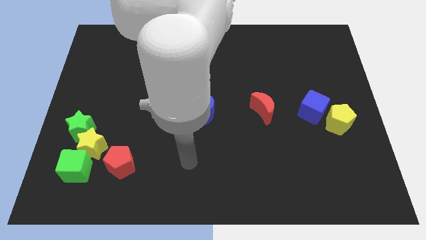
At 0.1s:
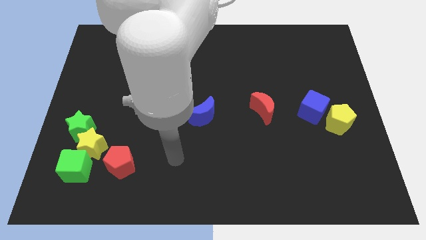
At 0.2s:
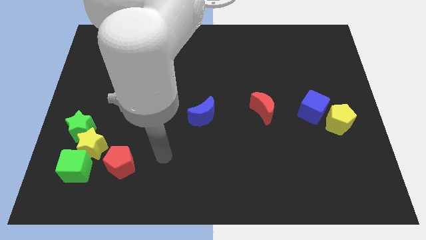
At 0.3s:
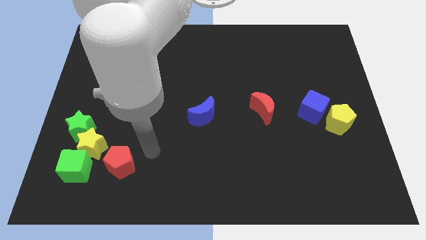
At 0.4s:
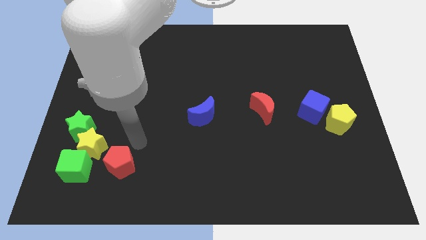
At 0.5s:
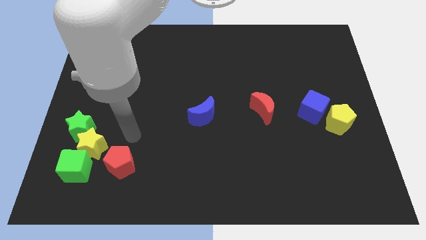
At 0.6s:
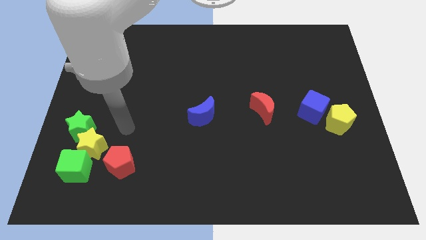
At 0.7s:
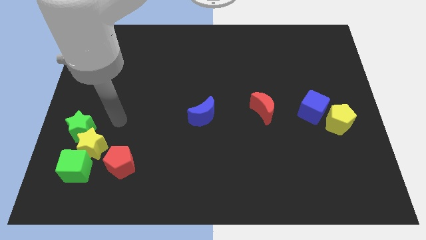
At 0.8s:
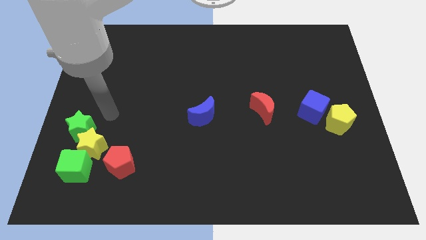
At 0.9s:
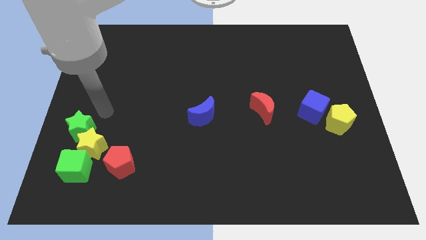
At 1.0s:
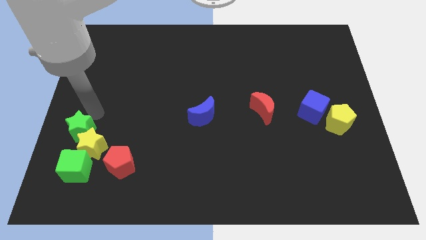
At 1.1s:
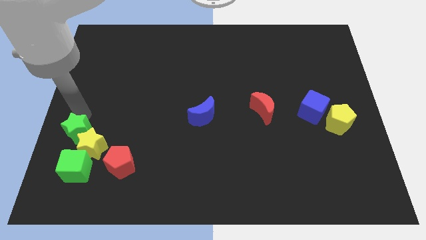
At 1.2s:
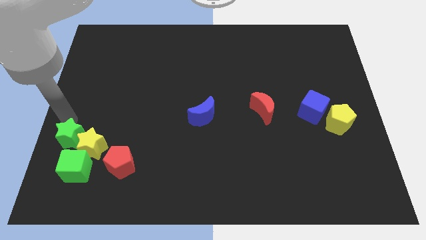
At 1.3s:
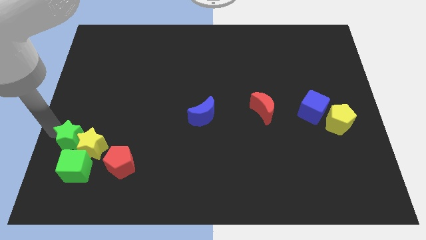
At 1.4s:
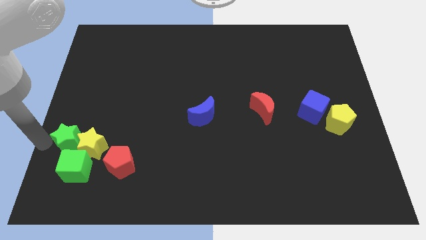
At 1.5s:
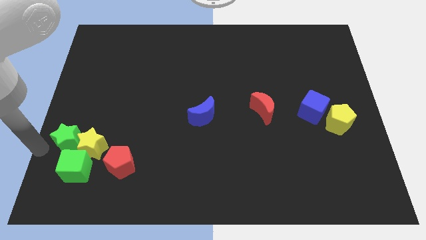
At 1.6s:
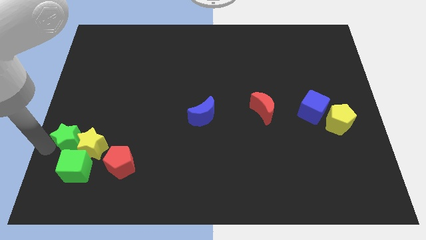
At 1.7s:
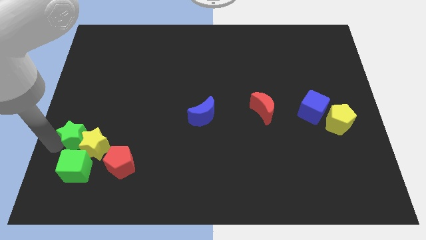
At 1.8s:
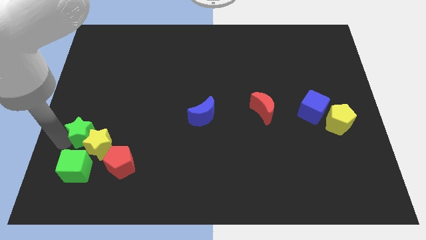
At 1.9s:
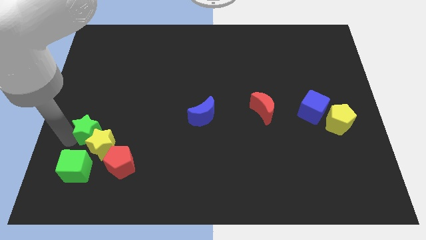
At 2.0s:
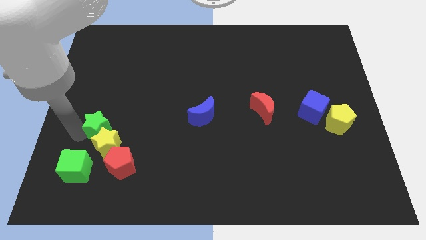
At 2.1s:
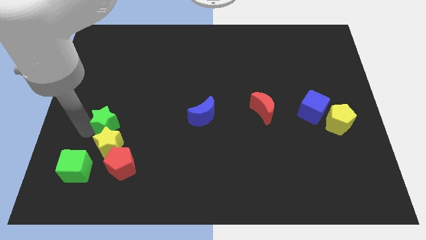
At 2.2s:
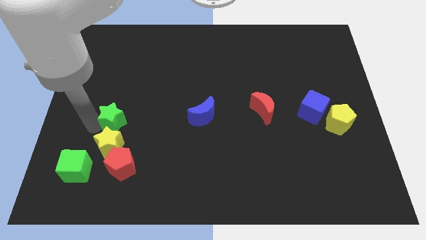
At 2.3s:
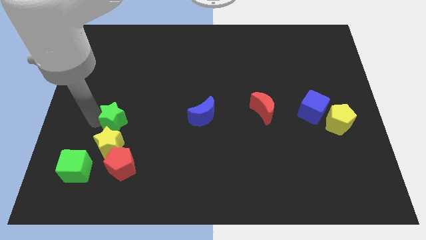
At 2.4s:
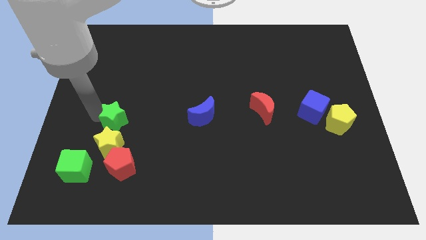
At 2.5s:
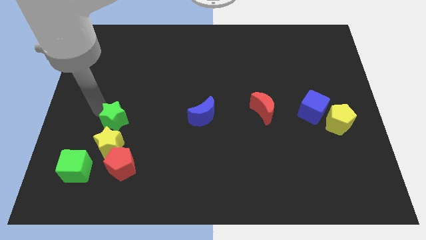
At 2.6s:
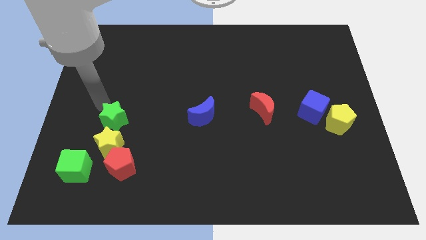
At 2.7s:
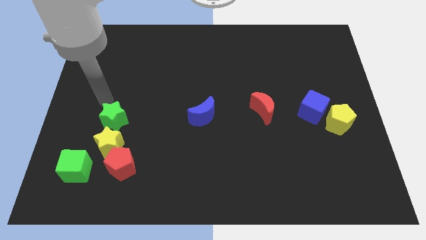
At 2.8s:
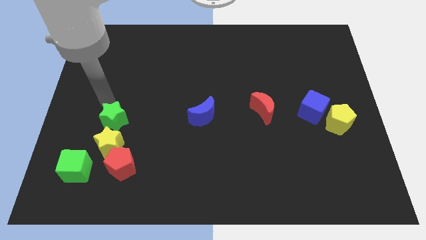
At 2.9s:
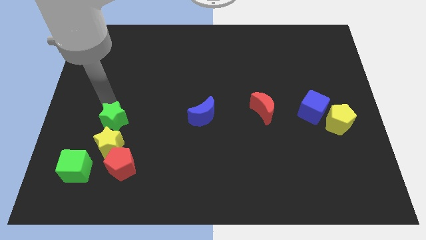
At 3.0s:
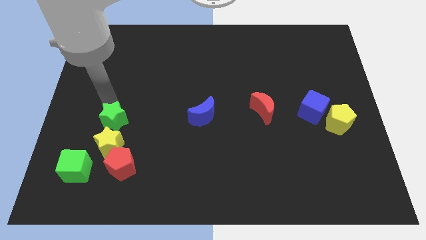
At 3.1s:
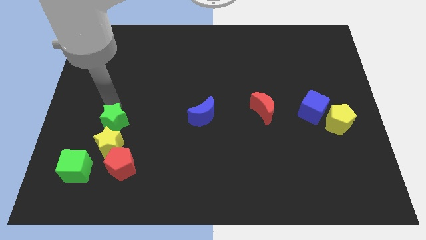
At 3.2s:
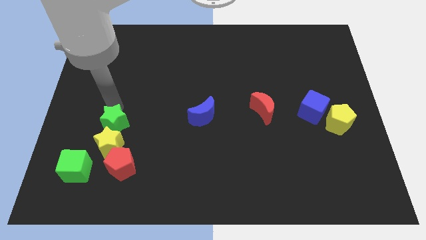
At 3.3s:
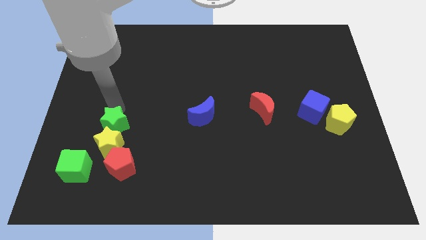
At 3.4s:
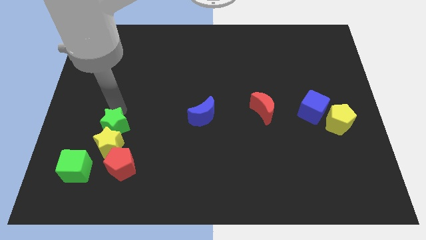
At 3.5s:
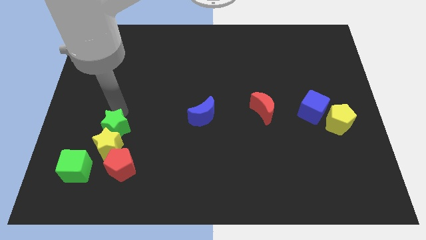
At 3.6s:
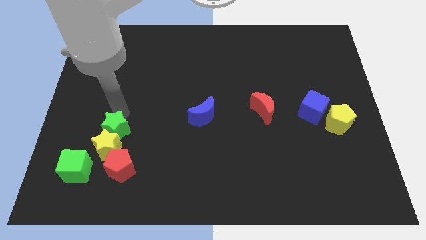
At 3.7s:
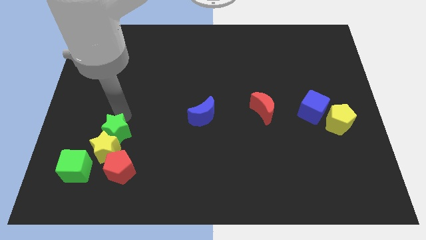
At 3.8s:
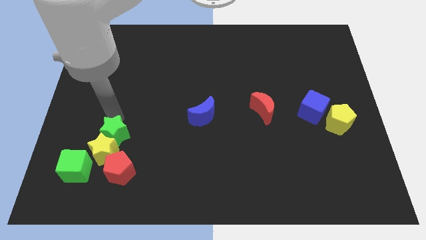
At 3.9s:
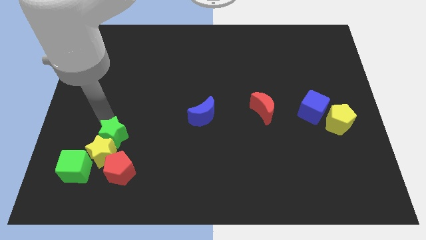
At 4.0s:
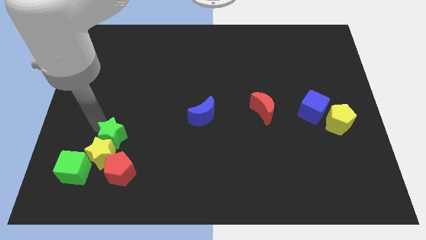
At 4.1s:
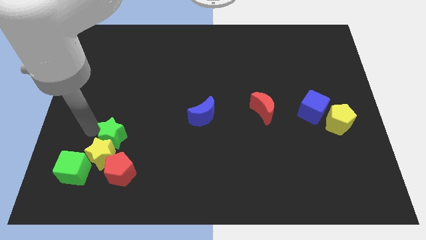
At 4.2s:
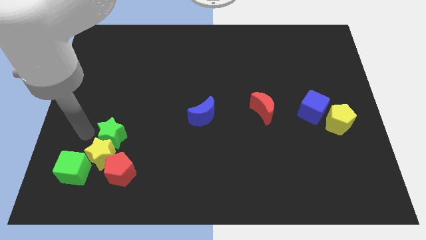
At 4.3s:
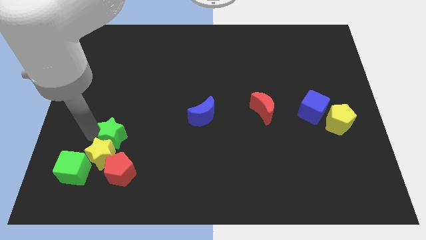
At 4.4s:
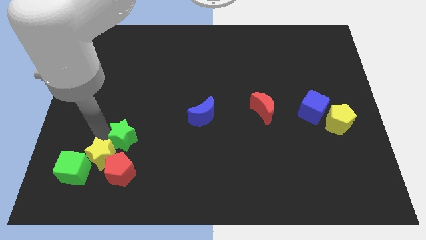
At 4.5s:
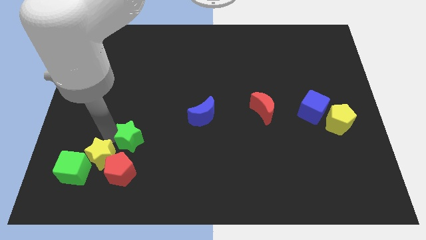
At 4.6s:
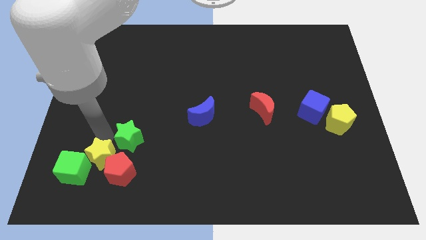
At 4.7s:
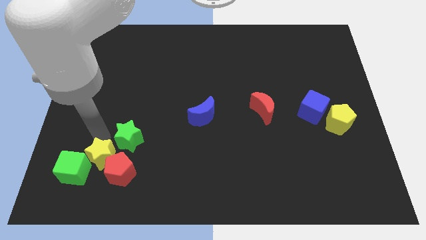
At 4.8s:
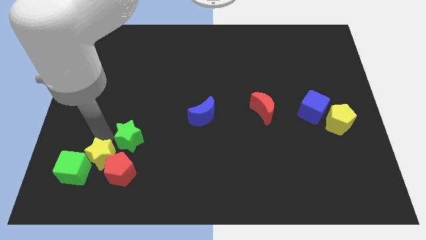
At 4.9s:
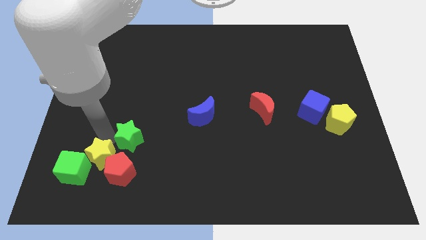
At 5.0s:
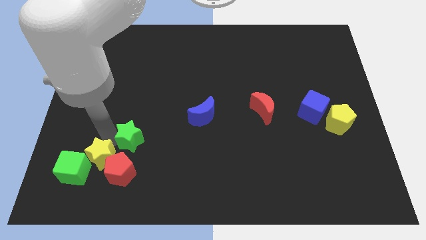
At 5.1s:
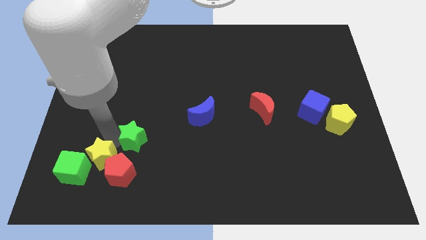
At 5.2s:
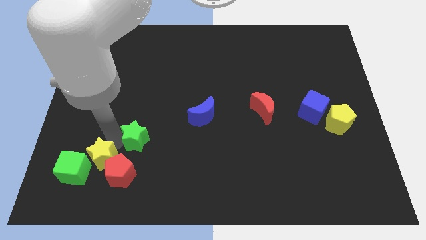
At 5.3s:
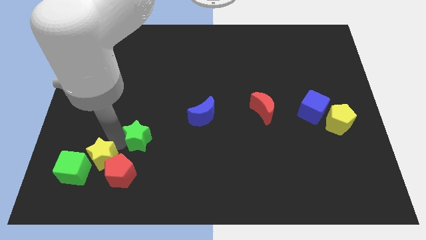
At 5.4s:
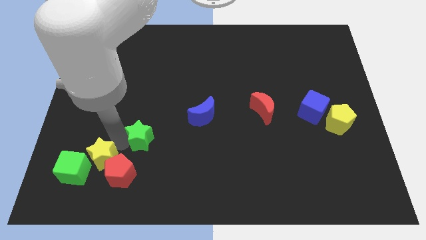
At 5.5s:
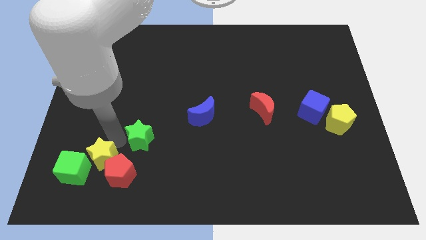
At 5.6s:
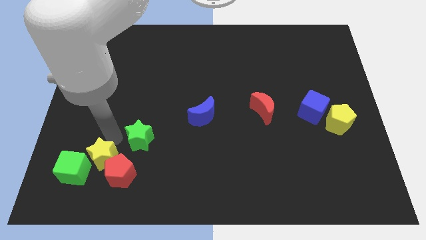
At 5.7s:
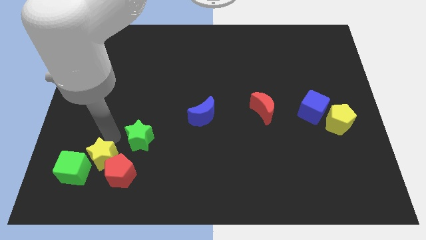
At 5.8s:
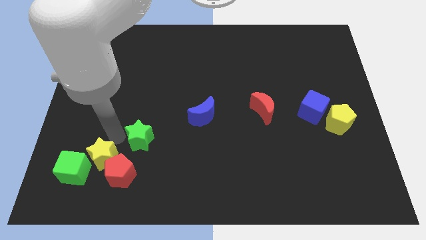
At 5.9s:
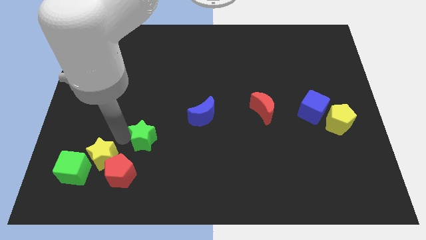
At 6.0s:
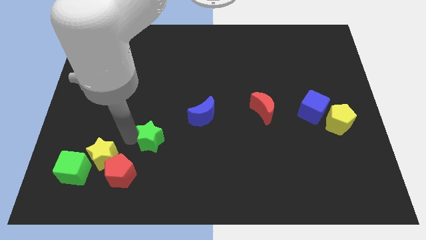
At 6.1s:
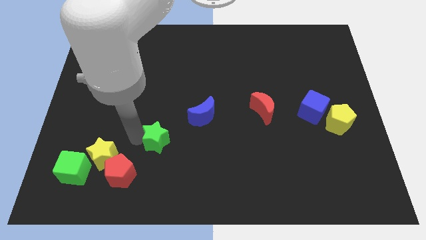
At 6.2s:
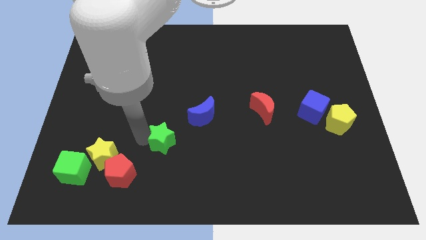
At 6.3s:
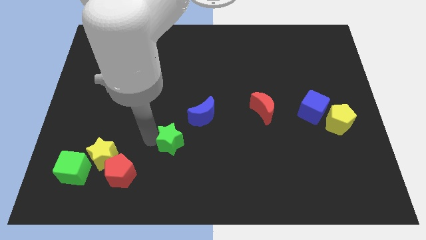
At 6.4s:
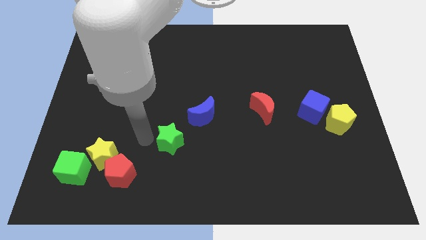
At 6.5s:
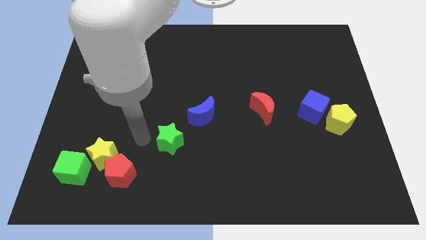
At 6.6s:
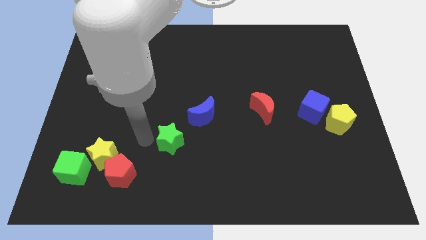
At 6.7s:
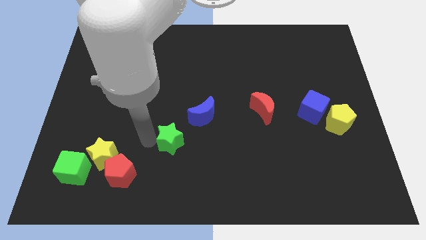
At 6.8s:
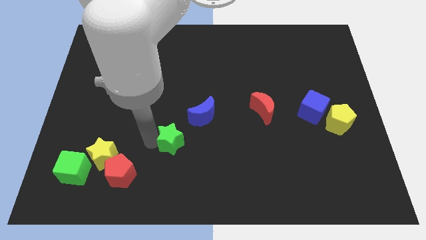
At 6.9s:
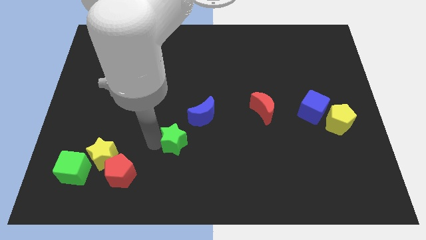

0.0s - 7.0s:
push the green star to the right

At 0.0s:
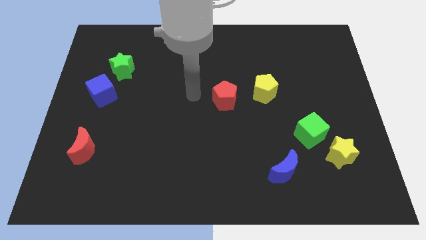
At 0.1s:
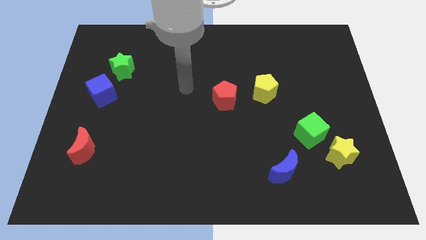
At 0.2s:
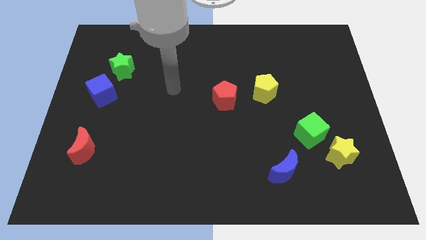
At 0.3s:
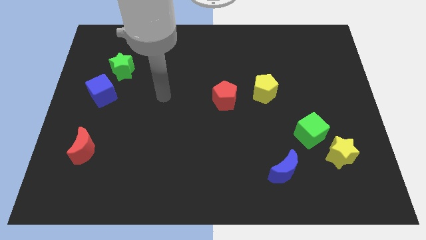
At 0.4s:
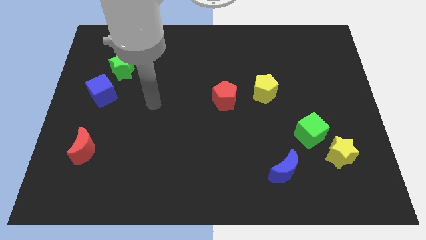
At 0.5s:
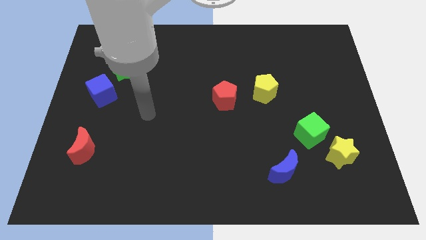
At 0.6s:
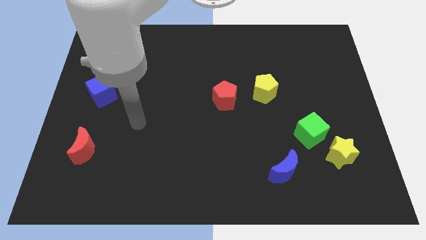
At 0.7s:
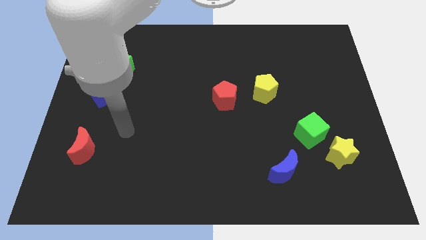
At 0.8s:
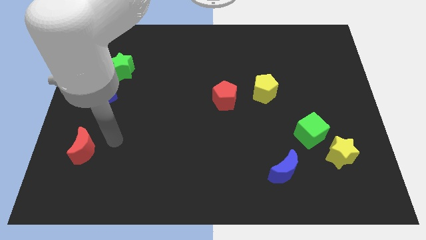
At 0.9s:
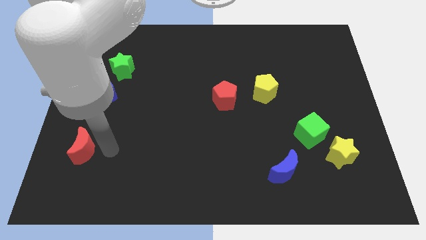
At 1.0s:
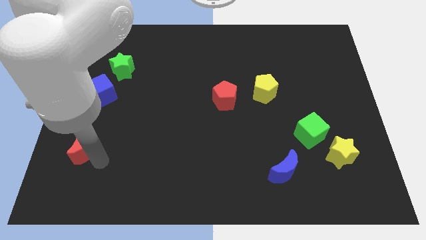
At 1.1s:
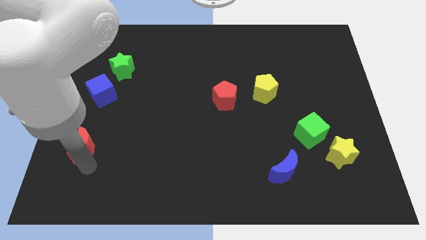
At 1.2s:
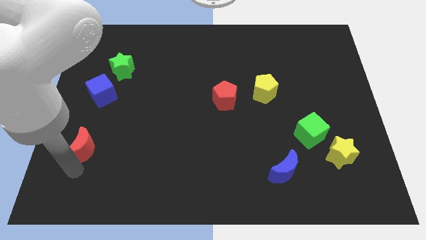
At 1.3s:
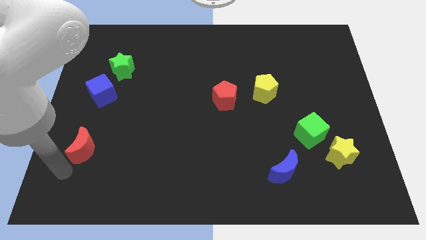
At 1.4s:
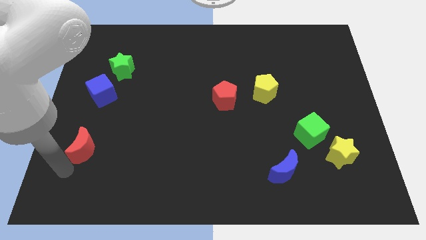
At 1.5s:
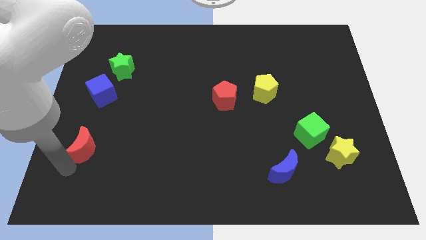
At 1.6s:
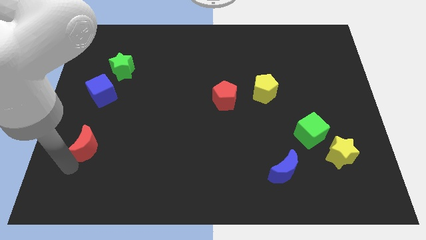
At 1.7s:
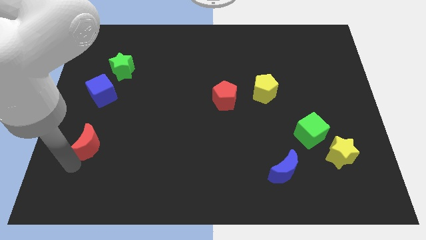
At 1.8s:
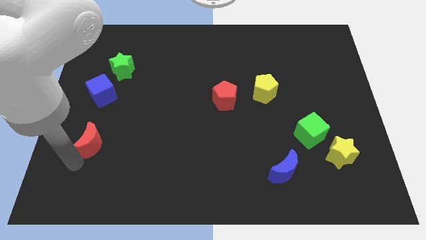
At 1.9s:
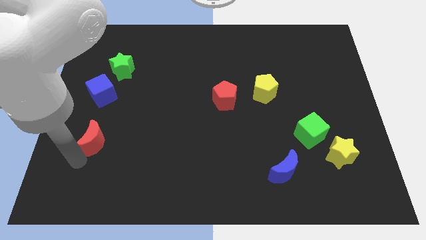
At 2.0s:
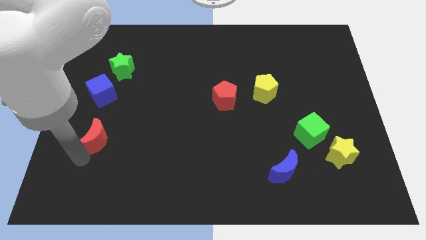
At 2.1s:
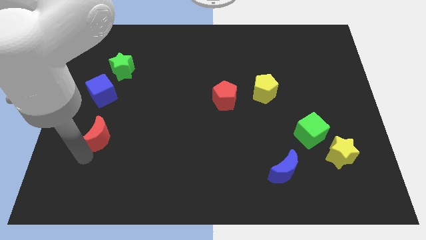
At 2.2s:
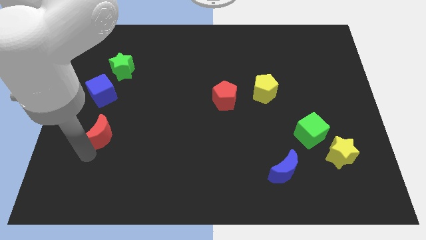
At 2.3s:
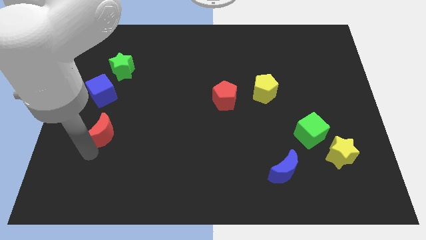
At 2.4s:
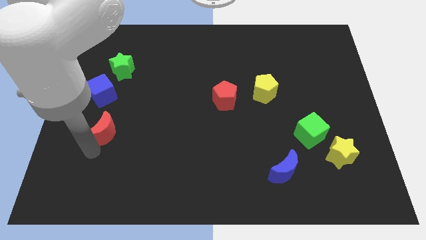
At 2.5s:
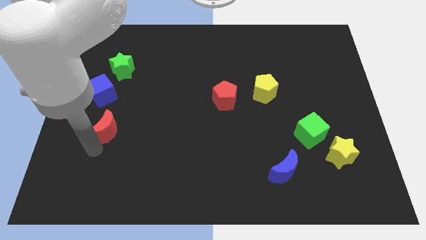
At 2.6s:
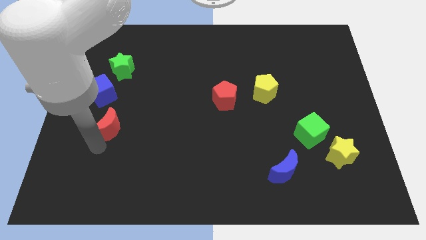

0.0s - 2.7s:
slightly move the red moon upwards and then right
